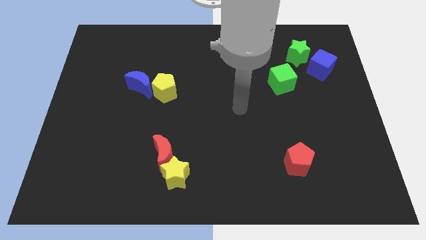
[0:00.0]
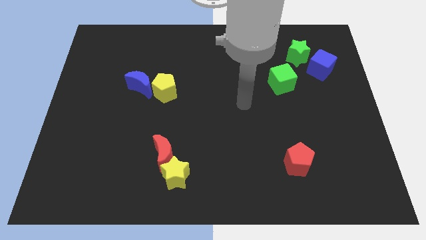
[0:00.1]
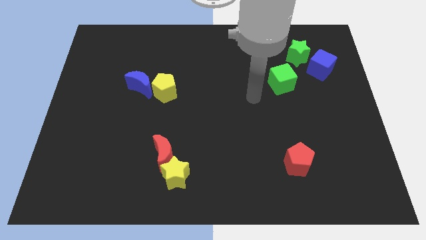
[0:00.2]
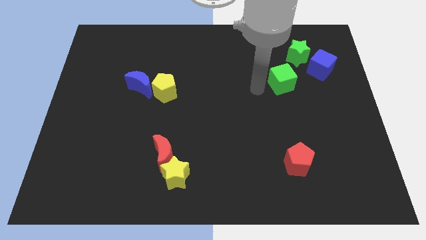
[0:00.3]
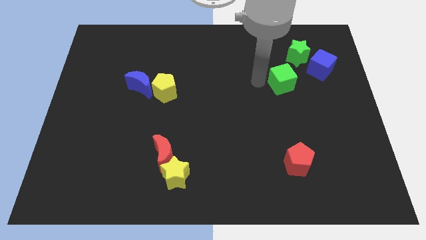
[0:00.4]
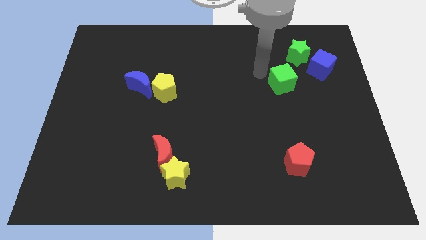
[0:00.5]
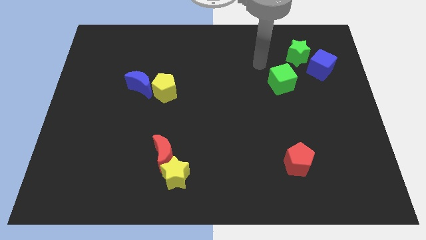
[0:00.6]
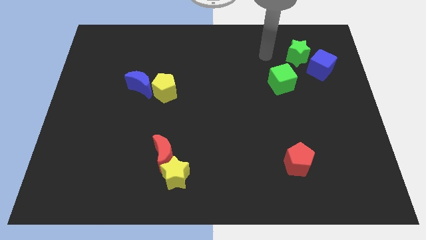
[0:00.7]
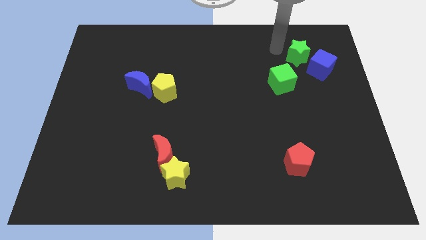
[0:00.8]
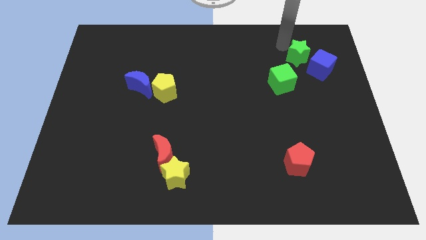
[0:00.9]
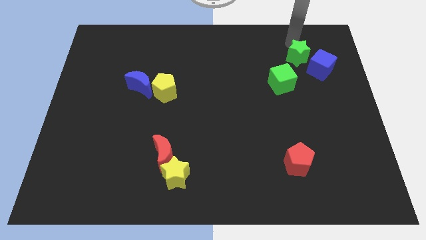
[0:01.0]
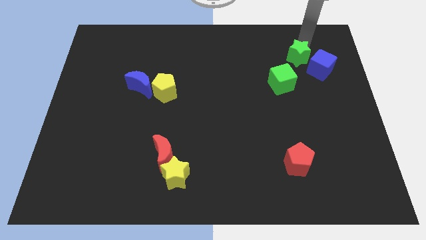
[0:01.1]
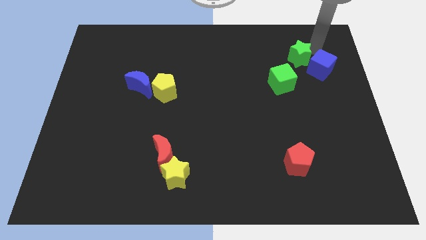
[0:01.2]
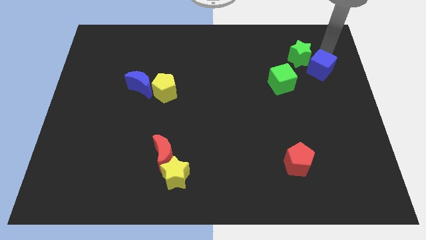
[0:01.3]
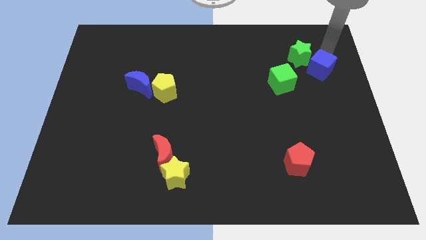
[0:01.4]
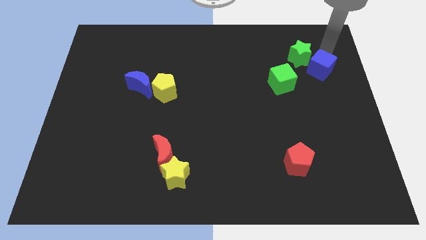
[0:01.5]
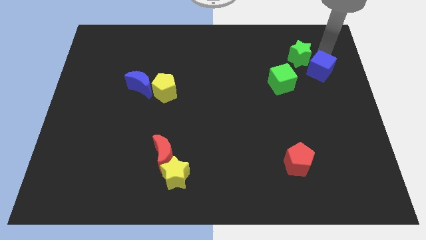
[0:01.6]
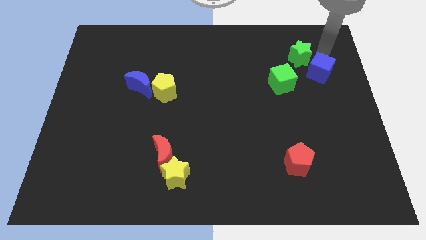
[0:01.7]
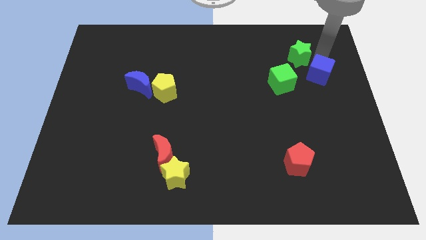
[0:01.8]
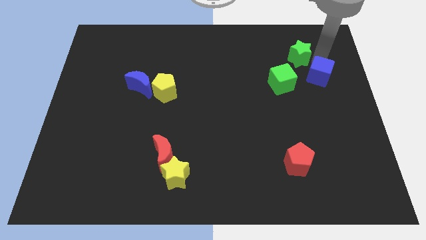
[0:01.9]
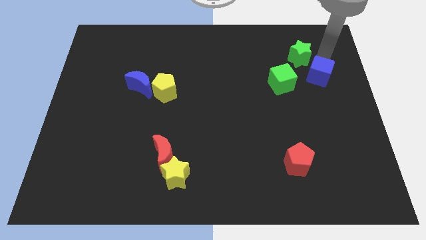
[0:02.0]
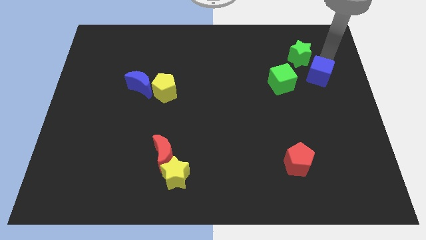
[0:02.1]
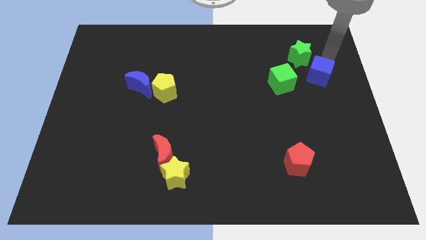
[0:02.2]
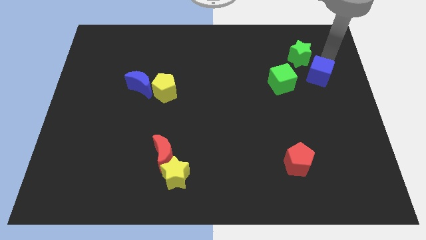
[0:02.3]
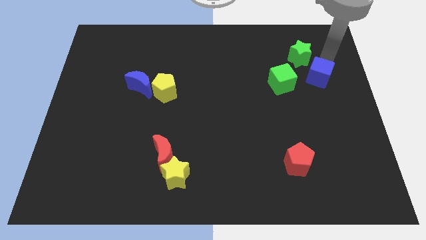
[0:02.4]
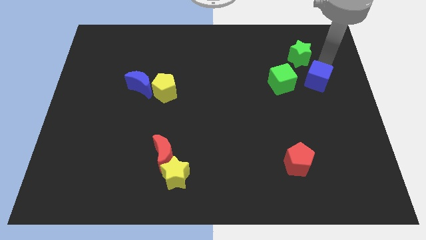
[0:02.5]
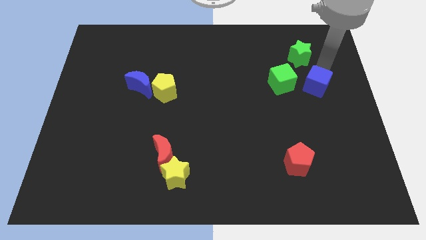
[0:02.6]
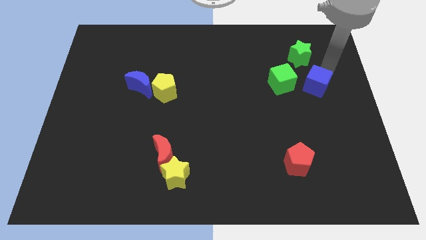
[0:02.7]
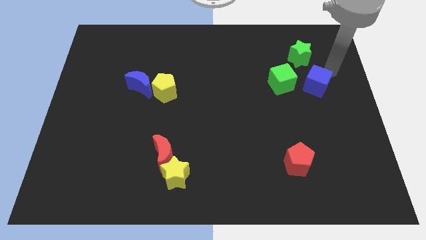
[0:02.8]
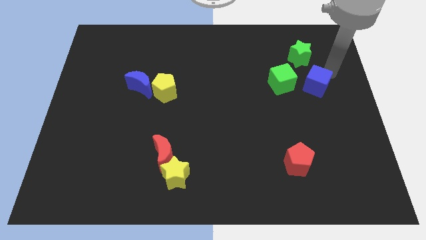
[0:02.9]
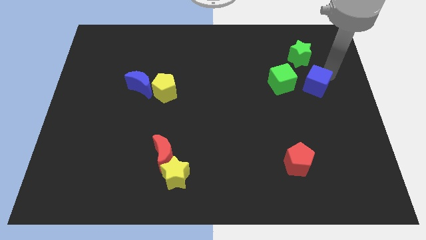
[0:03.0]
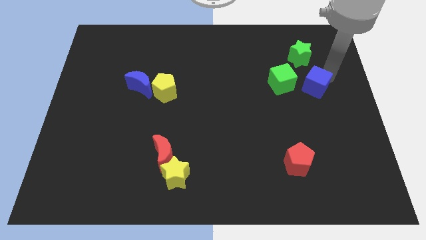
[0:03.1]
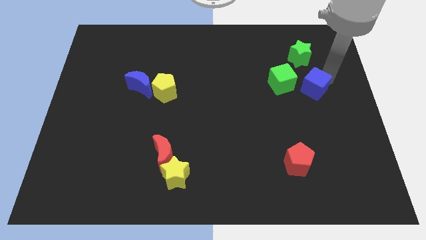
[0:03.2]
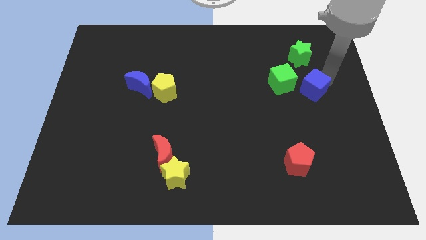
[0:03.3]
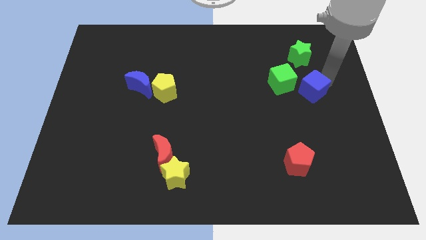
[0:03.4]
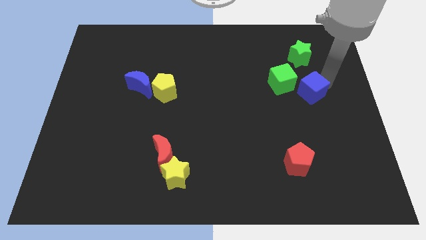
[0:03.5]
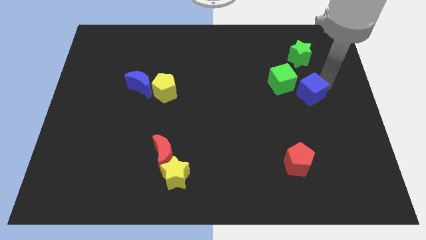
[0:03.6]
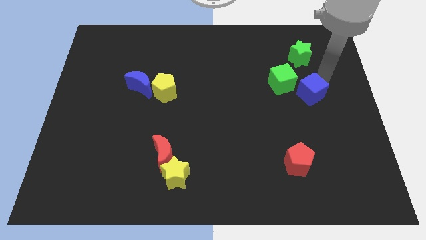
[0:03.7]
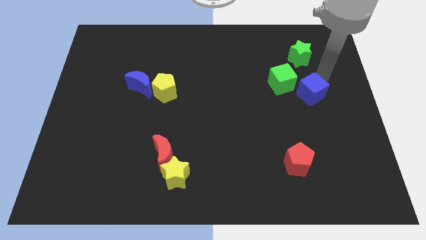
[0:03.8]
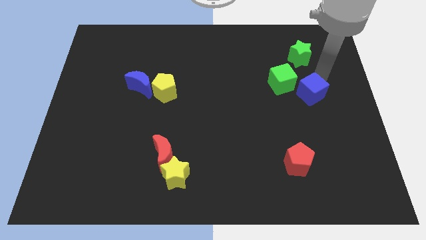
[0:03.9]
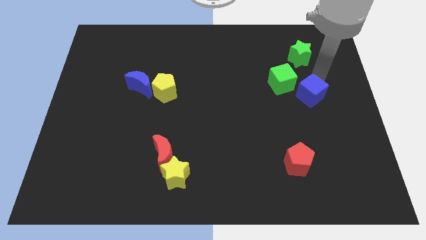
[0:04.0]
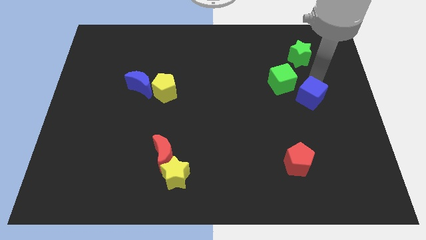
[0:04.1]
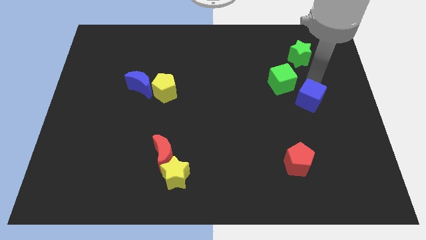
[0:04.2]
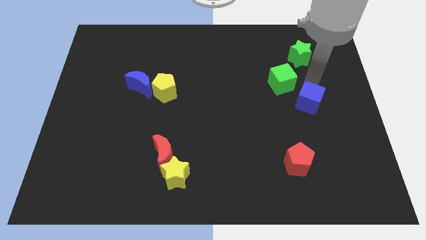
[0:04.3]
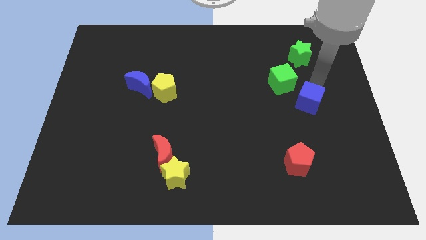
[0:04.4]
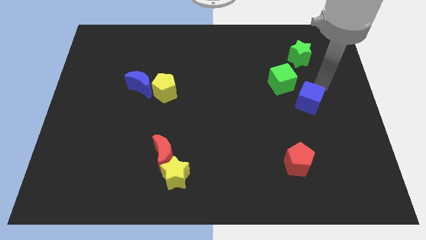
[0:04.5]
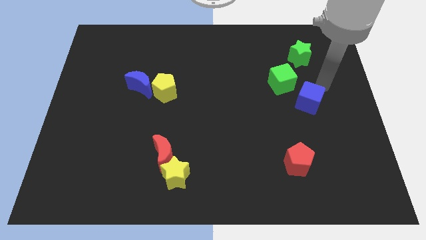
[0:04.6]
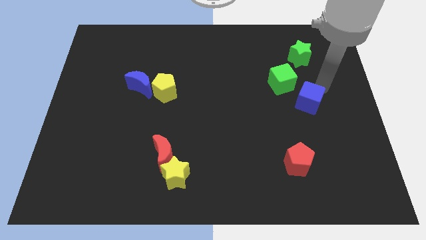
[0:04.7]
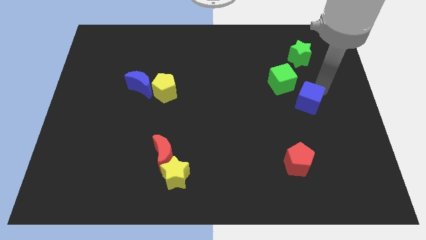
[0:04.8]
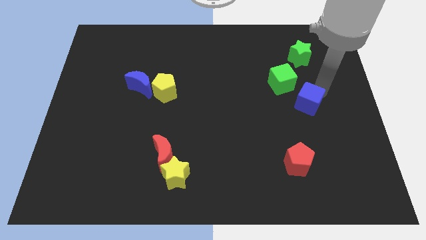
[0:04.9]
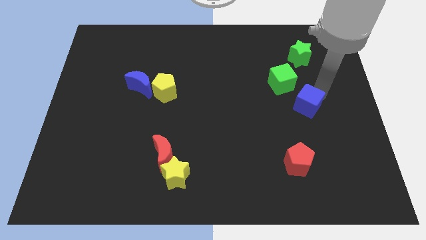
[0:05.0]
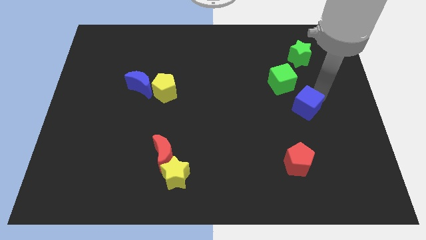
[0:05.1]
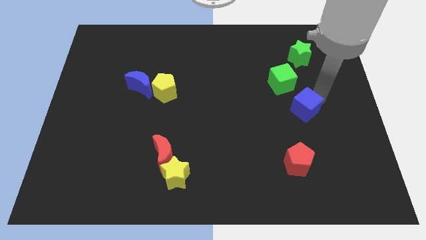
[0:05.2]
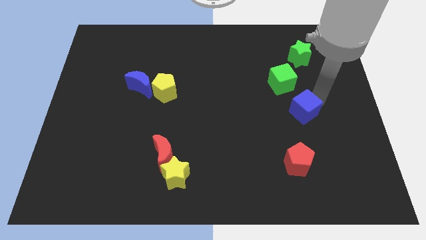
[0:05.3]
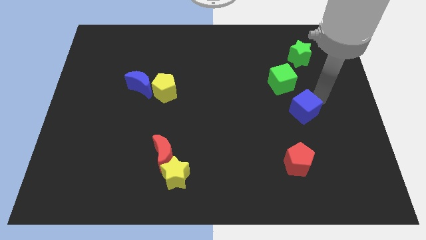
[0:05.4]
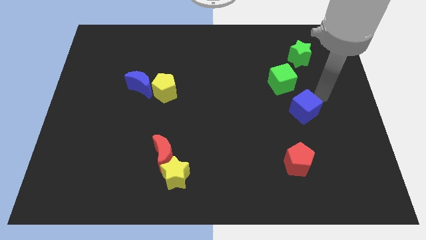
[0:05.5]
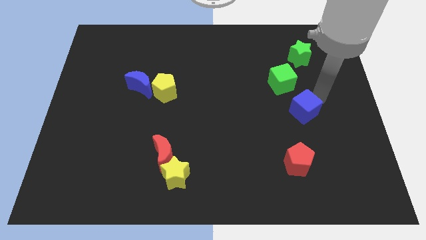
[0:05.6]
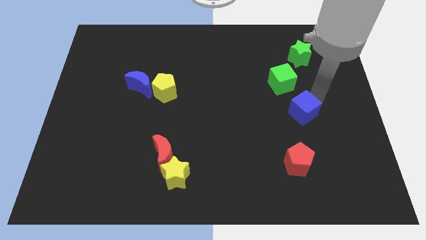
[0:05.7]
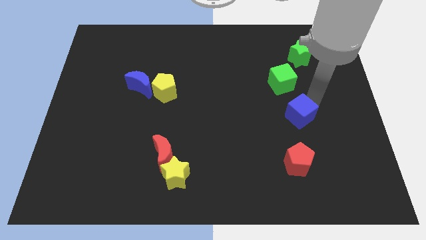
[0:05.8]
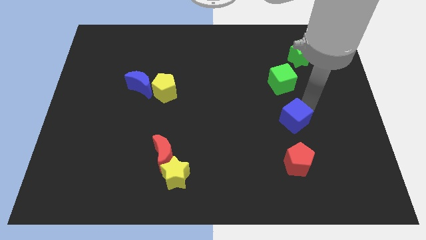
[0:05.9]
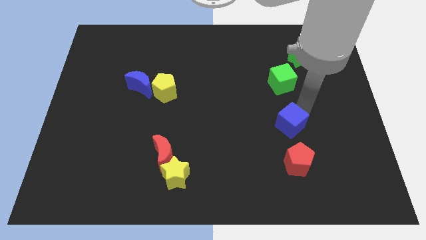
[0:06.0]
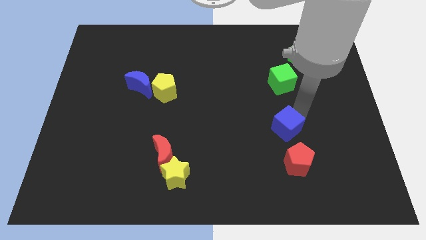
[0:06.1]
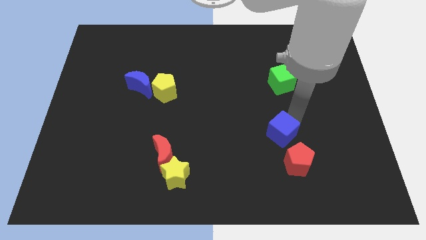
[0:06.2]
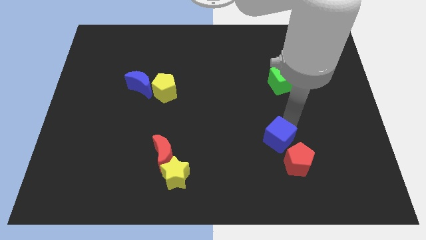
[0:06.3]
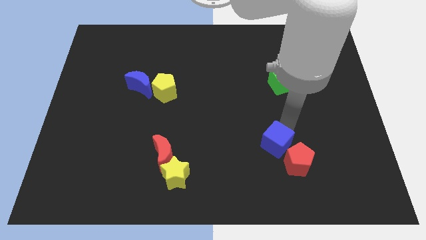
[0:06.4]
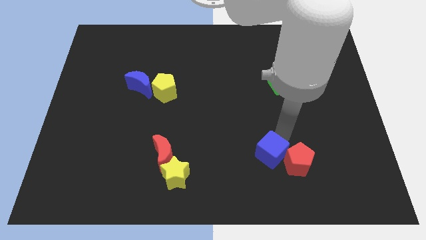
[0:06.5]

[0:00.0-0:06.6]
put the blue cube to the left of the red pentagon
